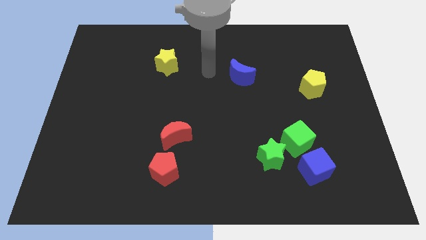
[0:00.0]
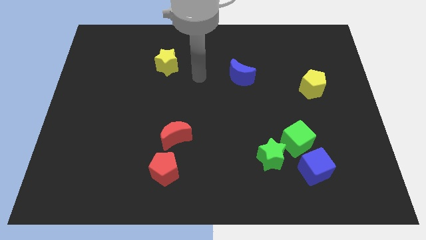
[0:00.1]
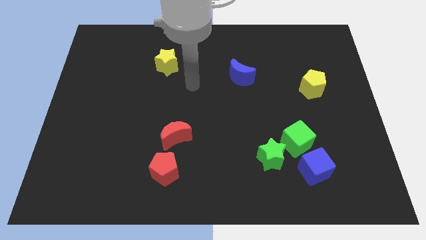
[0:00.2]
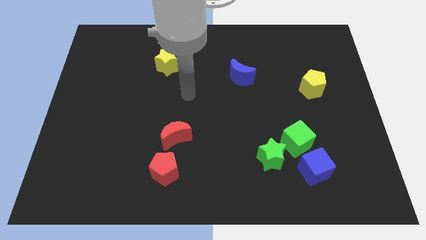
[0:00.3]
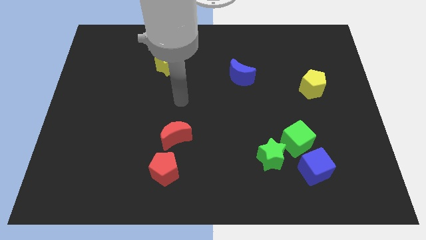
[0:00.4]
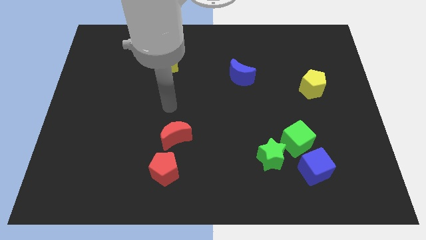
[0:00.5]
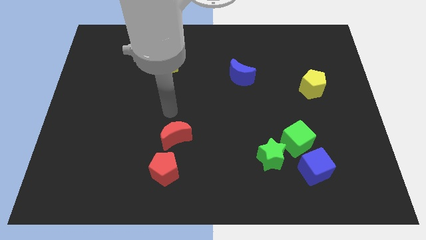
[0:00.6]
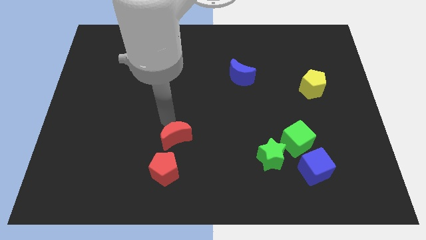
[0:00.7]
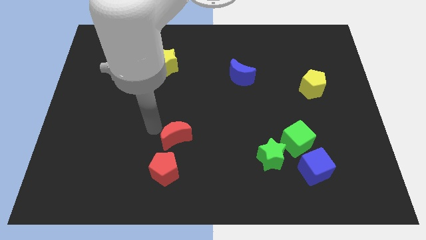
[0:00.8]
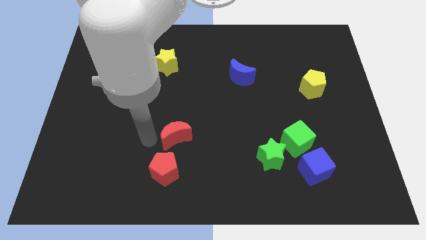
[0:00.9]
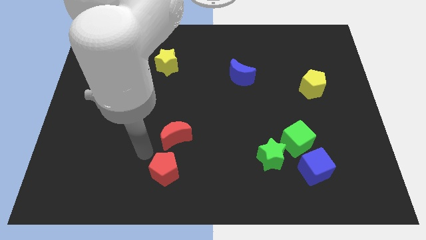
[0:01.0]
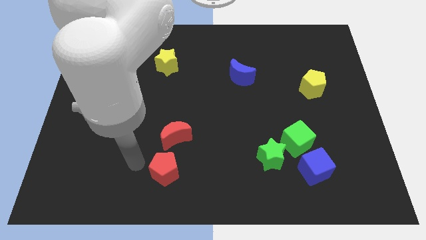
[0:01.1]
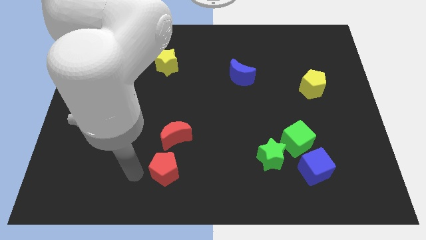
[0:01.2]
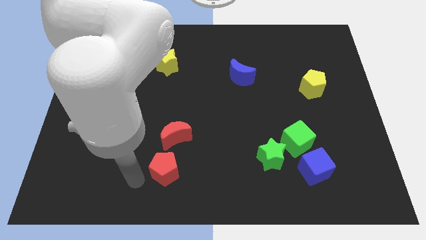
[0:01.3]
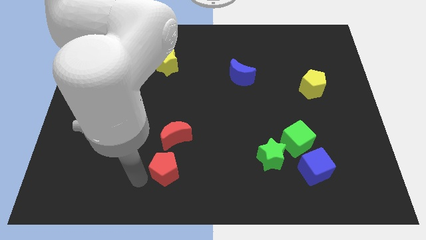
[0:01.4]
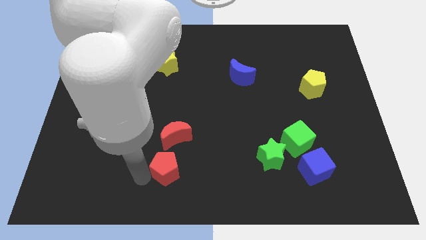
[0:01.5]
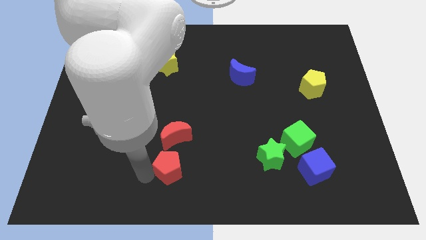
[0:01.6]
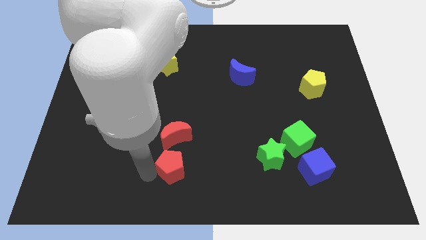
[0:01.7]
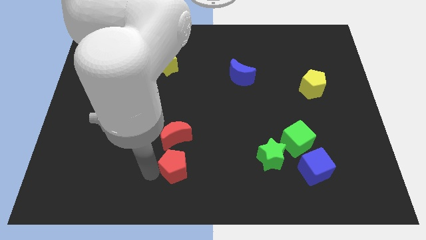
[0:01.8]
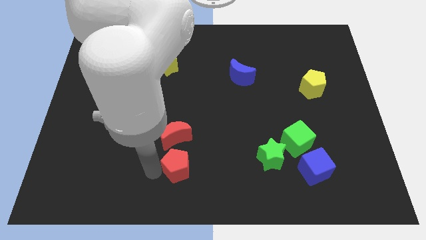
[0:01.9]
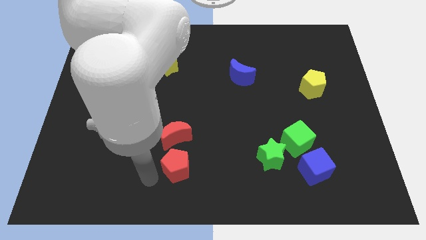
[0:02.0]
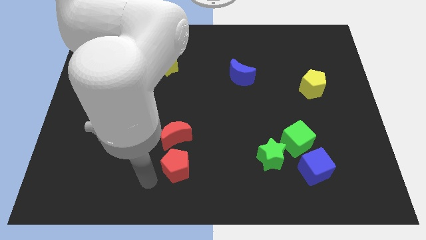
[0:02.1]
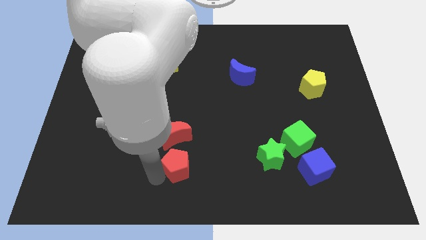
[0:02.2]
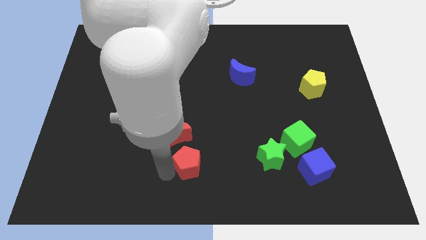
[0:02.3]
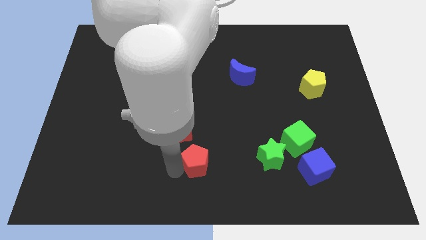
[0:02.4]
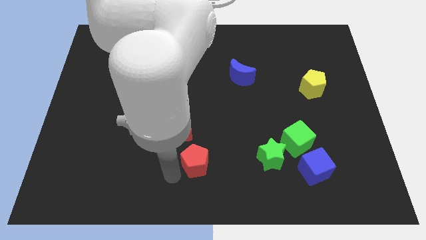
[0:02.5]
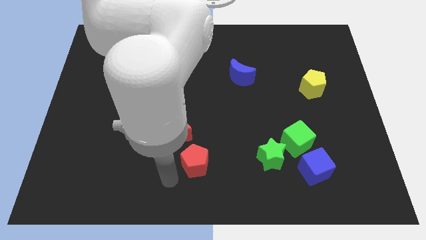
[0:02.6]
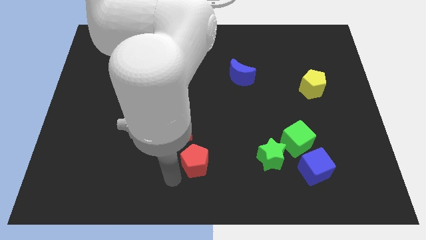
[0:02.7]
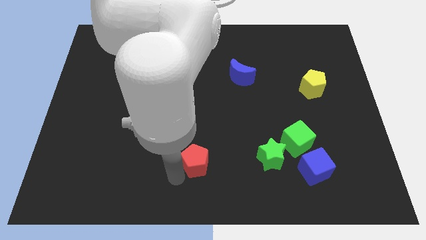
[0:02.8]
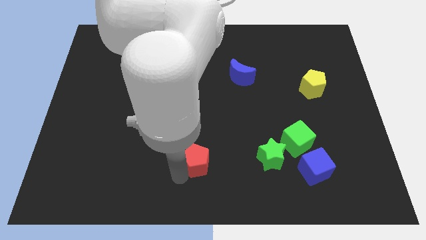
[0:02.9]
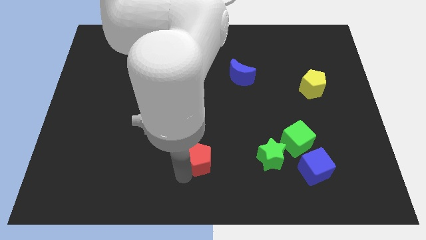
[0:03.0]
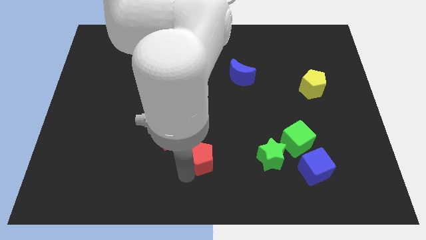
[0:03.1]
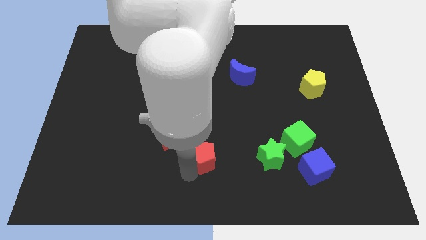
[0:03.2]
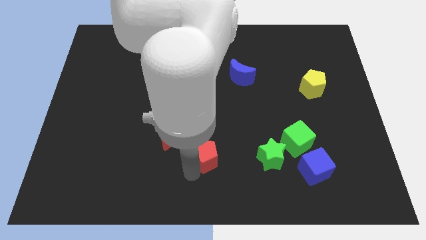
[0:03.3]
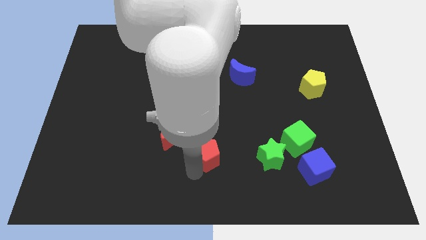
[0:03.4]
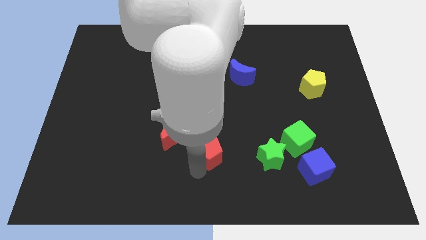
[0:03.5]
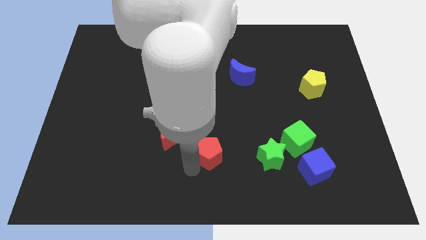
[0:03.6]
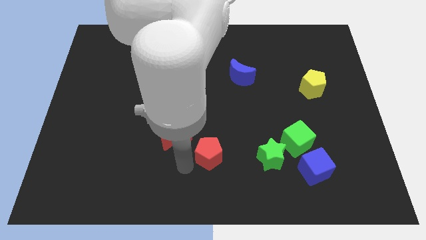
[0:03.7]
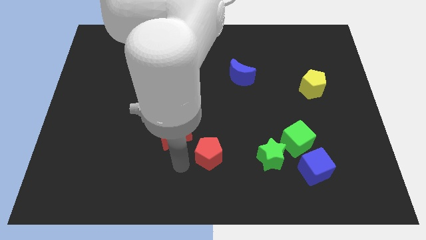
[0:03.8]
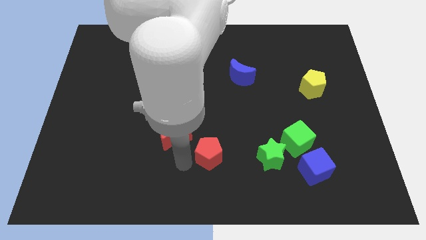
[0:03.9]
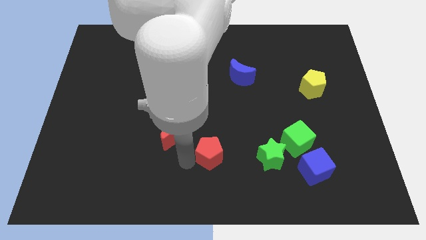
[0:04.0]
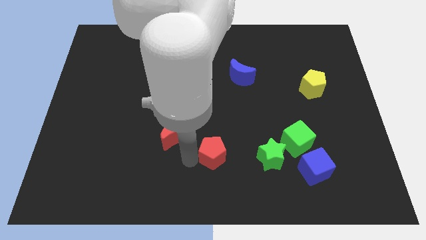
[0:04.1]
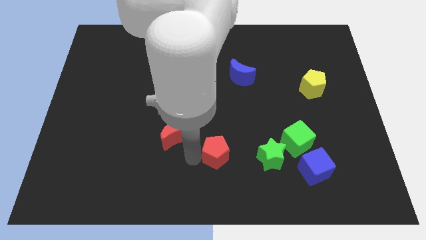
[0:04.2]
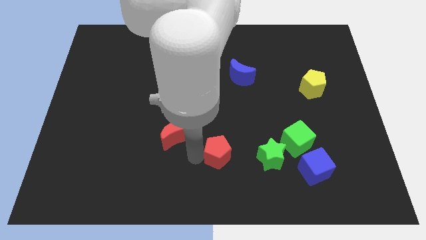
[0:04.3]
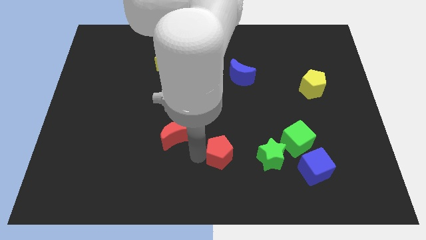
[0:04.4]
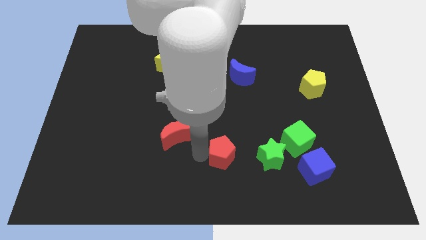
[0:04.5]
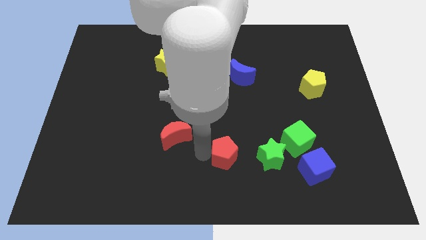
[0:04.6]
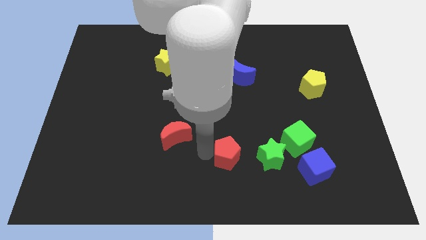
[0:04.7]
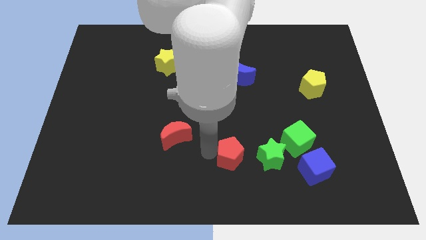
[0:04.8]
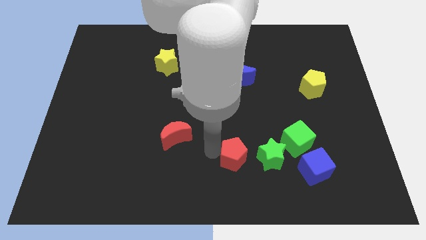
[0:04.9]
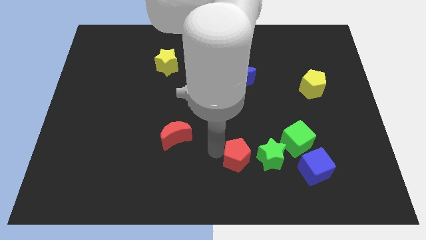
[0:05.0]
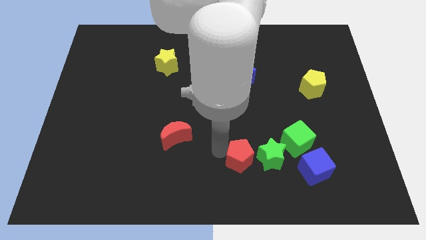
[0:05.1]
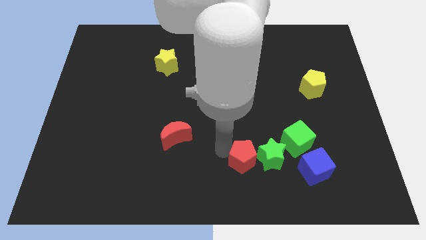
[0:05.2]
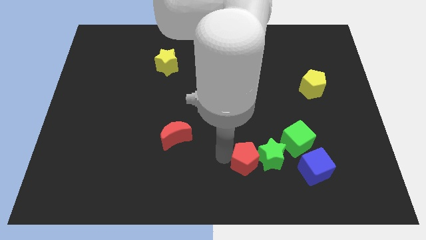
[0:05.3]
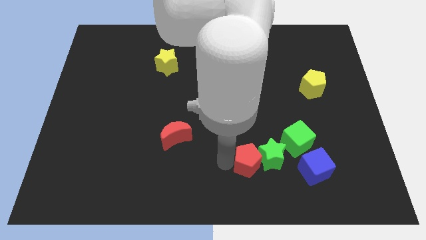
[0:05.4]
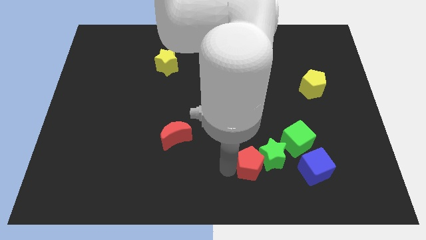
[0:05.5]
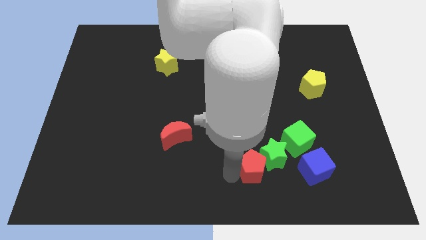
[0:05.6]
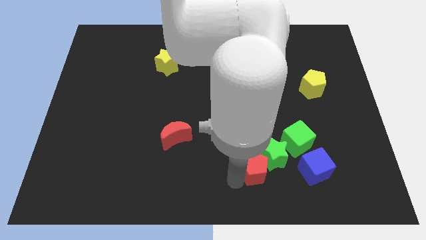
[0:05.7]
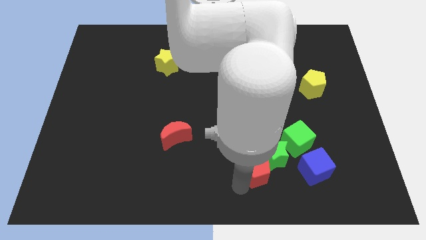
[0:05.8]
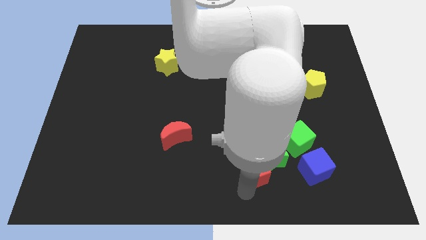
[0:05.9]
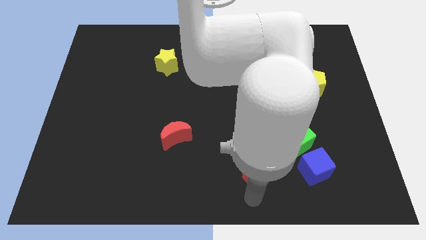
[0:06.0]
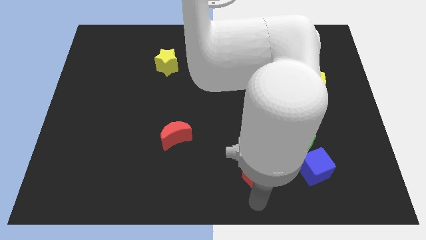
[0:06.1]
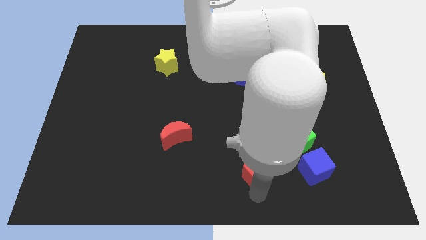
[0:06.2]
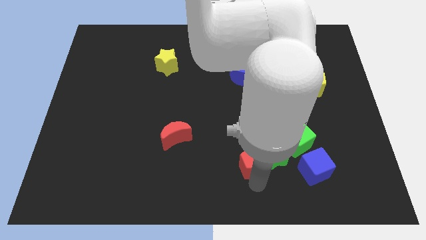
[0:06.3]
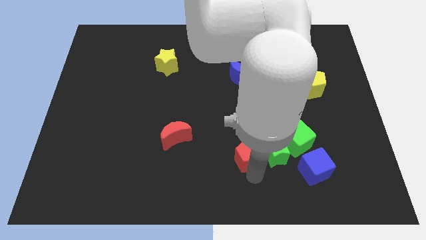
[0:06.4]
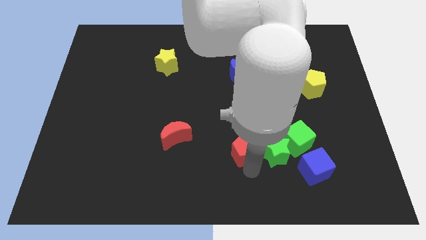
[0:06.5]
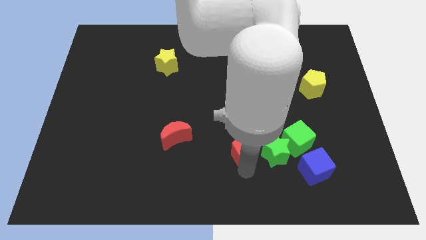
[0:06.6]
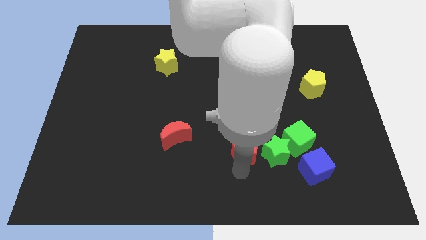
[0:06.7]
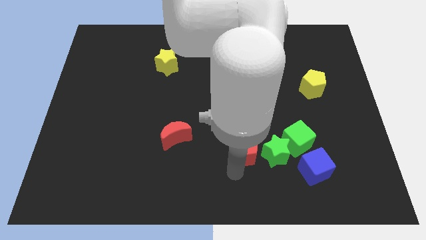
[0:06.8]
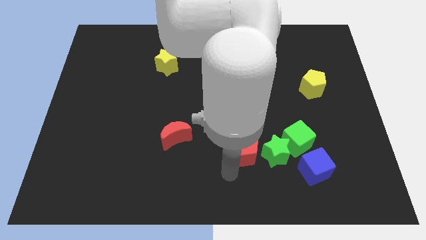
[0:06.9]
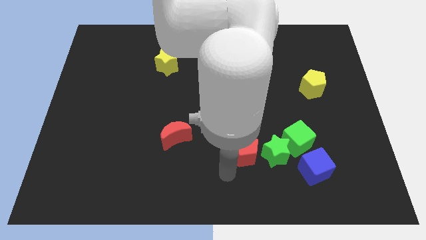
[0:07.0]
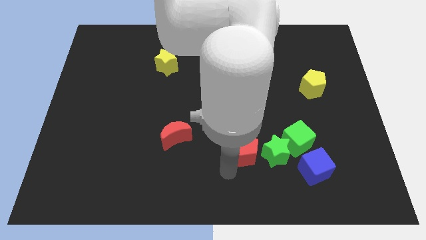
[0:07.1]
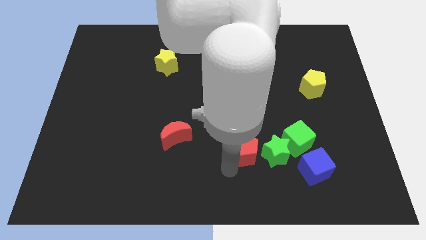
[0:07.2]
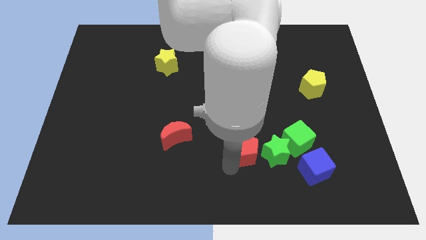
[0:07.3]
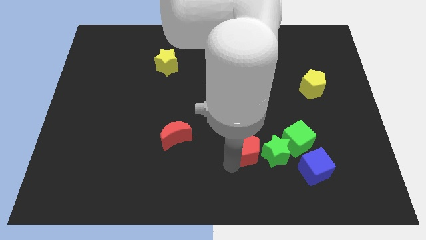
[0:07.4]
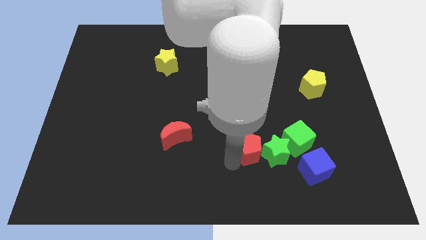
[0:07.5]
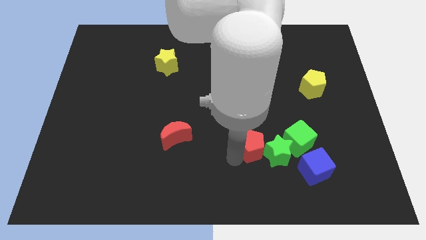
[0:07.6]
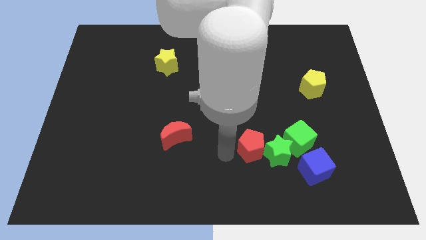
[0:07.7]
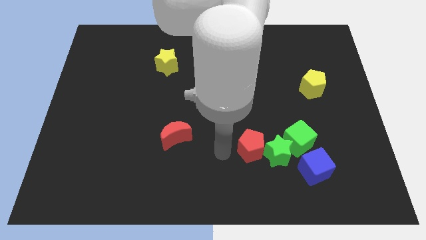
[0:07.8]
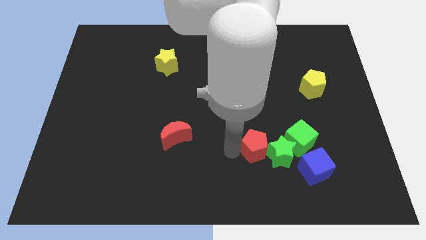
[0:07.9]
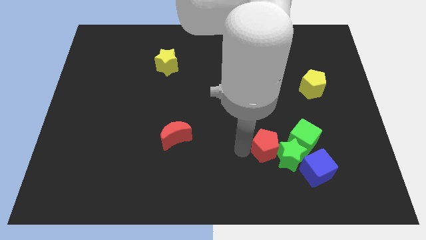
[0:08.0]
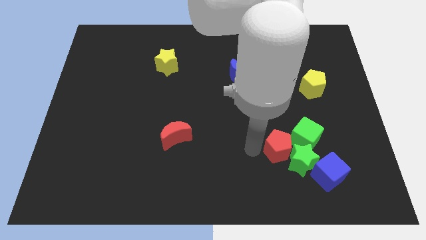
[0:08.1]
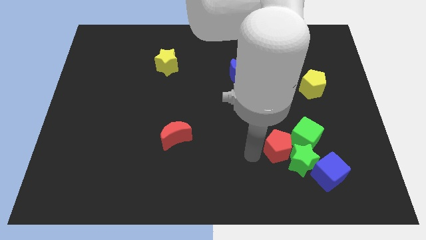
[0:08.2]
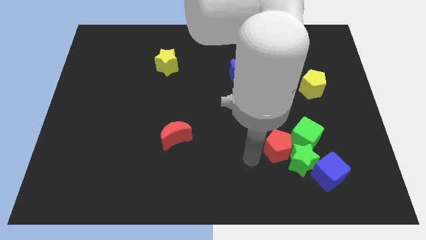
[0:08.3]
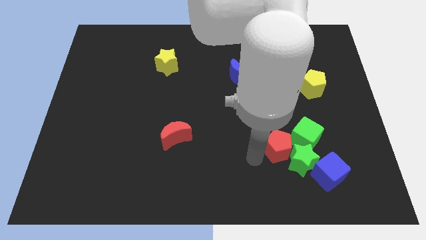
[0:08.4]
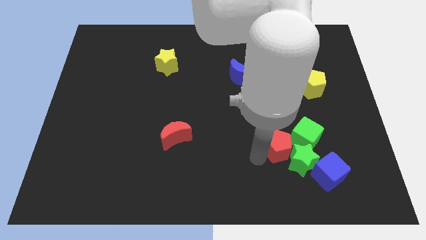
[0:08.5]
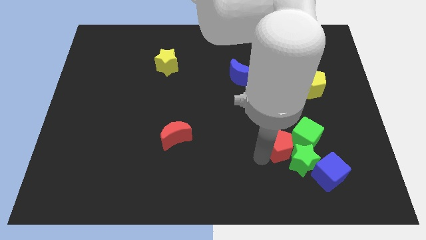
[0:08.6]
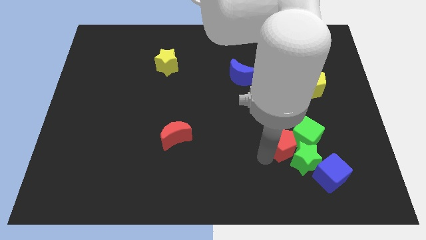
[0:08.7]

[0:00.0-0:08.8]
slide the red pentagon towards the green cube
